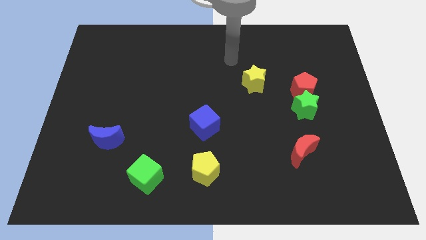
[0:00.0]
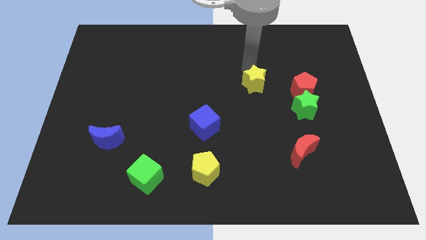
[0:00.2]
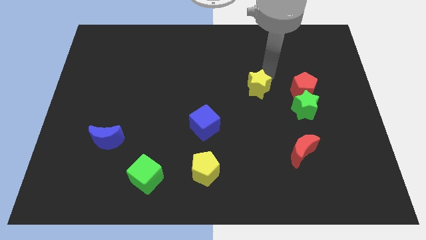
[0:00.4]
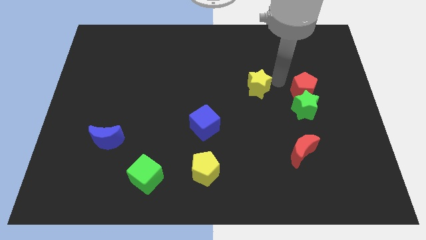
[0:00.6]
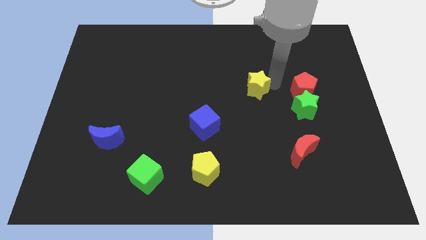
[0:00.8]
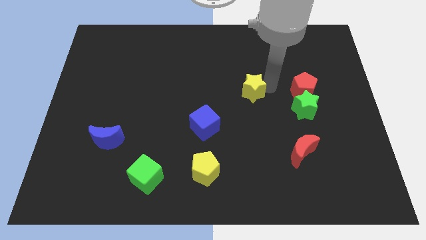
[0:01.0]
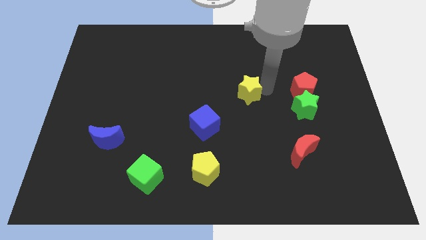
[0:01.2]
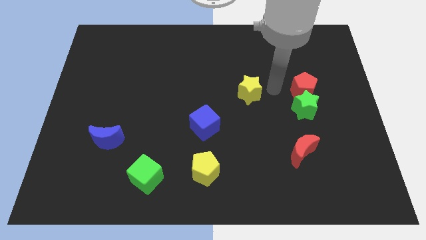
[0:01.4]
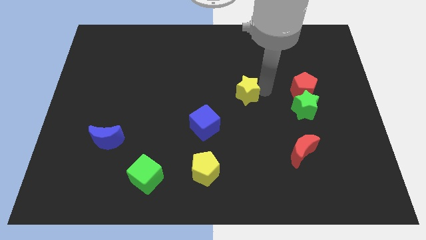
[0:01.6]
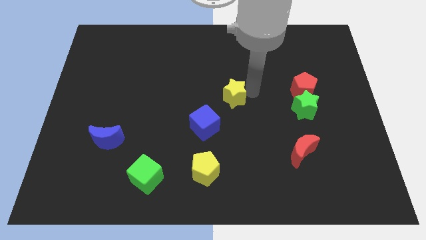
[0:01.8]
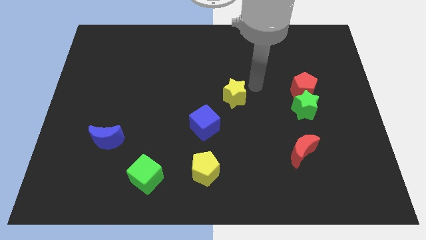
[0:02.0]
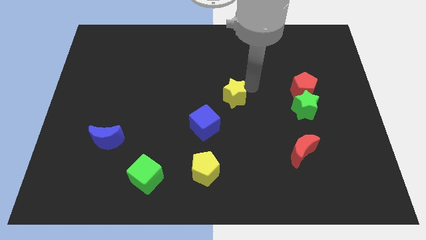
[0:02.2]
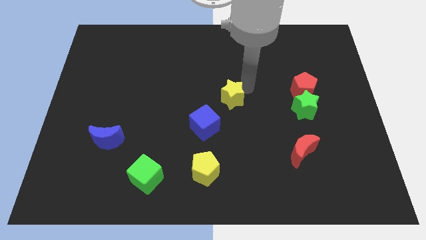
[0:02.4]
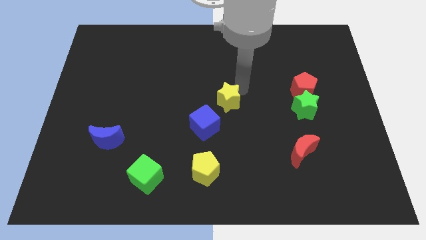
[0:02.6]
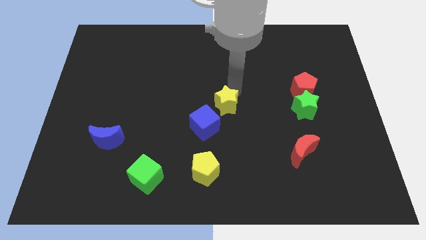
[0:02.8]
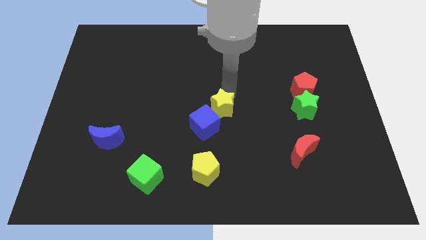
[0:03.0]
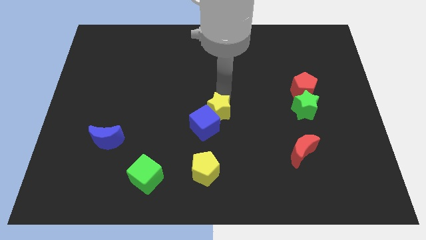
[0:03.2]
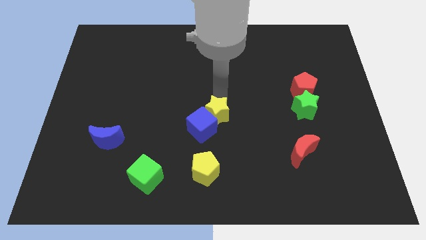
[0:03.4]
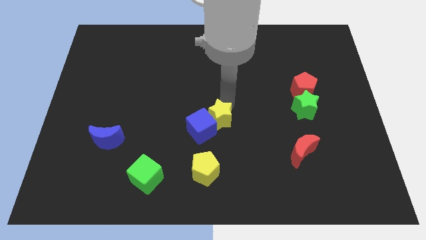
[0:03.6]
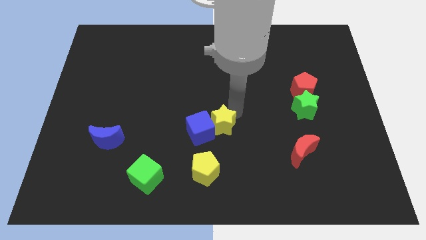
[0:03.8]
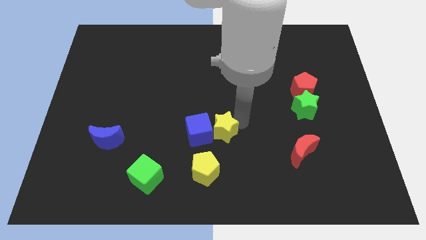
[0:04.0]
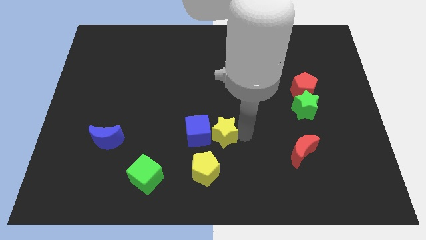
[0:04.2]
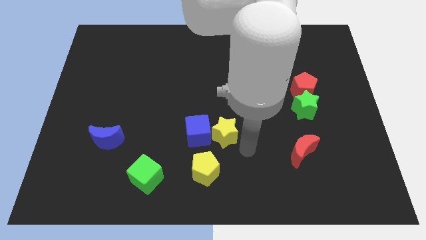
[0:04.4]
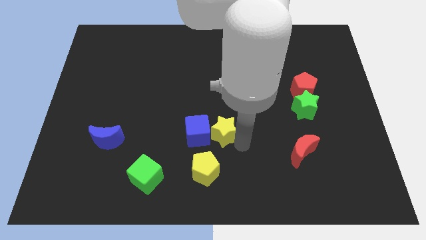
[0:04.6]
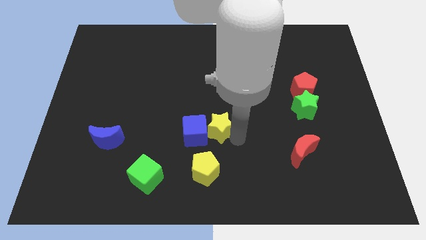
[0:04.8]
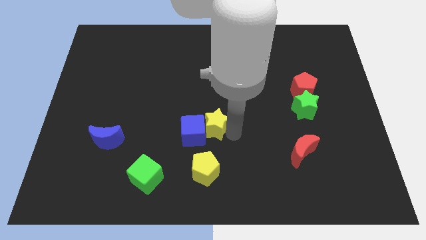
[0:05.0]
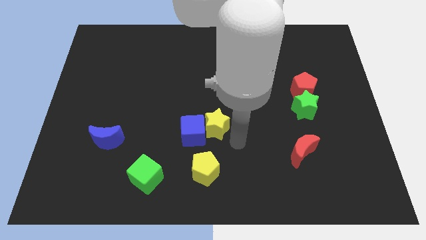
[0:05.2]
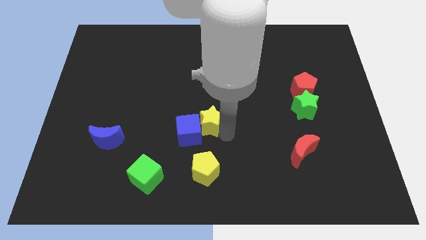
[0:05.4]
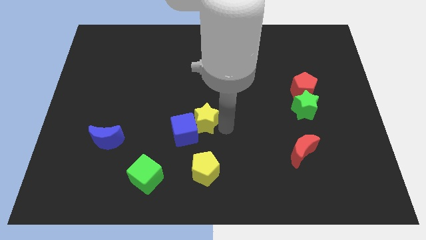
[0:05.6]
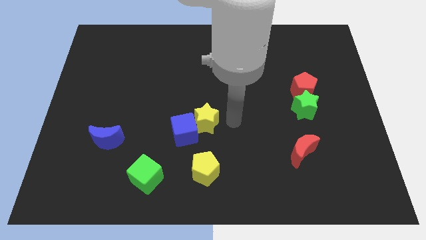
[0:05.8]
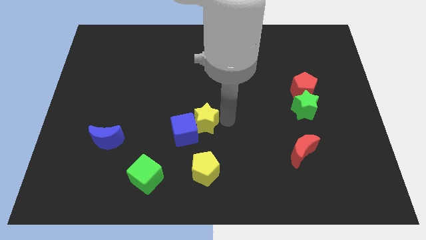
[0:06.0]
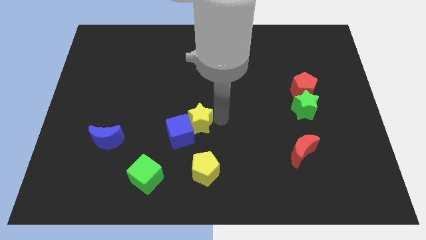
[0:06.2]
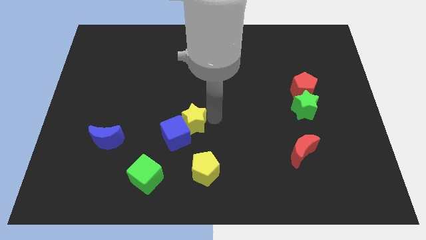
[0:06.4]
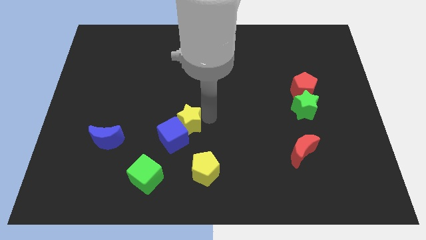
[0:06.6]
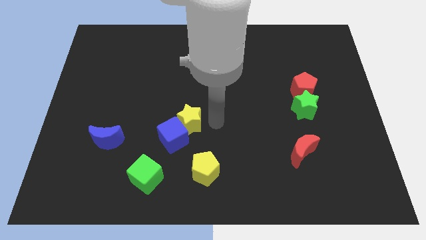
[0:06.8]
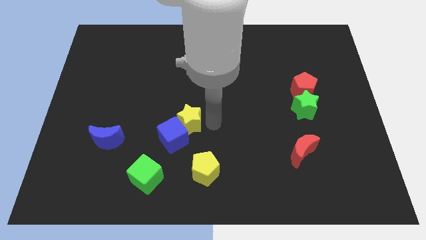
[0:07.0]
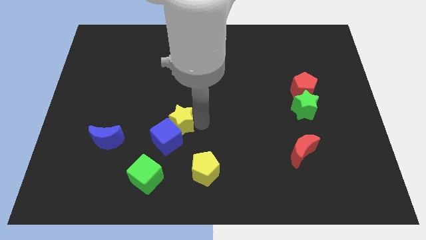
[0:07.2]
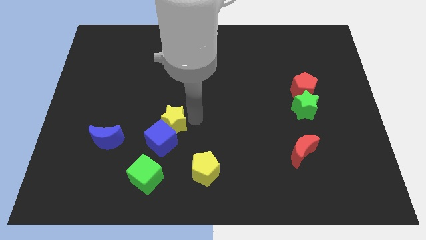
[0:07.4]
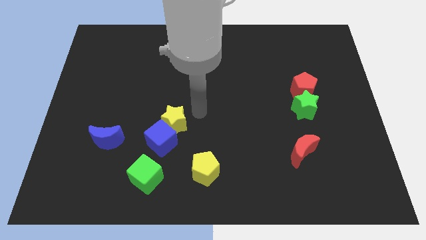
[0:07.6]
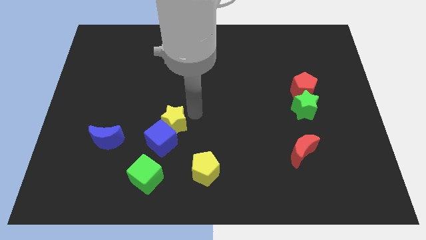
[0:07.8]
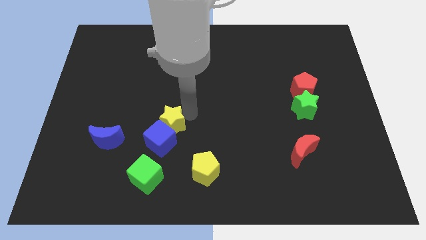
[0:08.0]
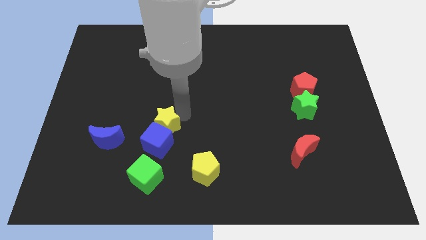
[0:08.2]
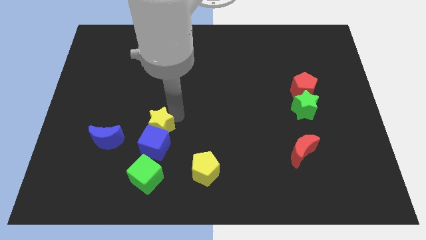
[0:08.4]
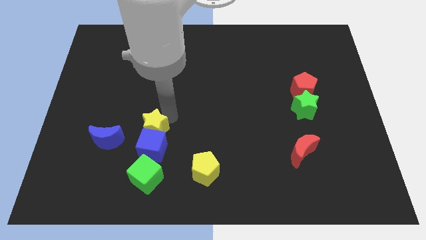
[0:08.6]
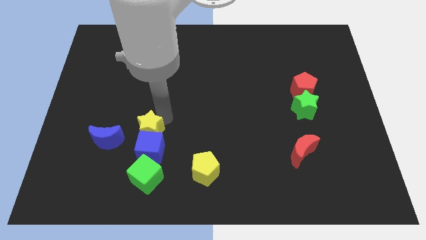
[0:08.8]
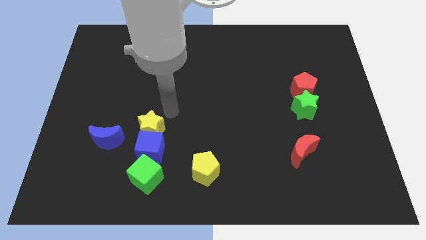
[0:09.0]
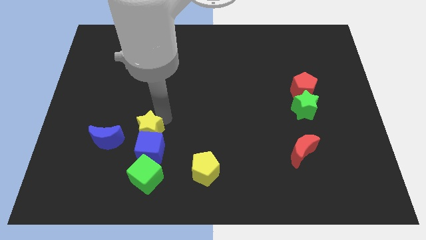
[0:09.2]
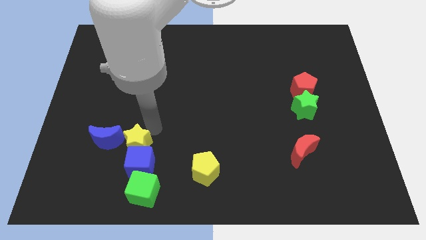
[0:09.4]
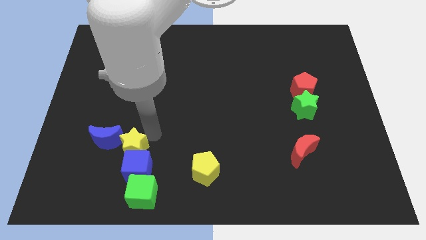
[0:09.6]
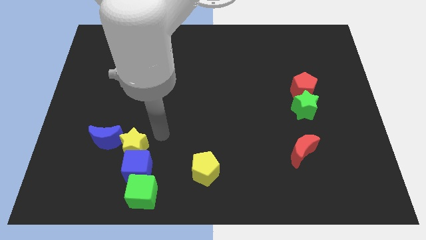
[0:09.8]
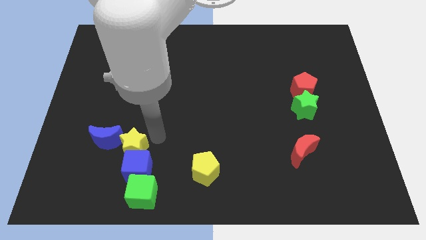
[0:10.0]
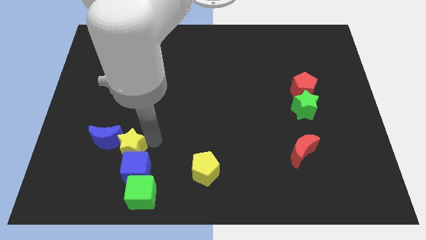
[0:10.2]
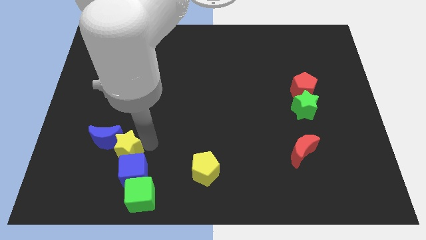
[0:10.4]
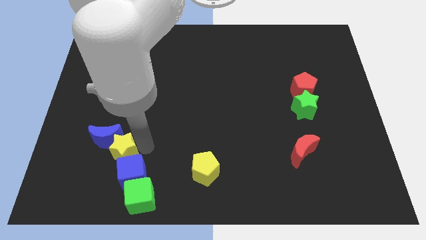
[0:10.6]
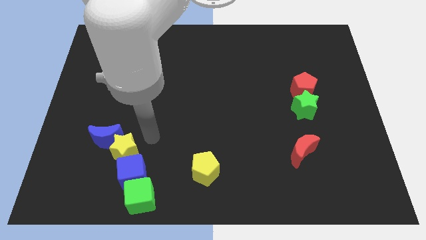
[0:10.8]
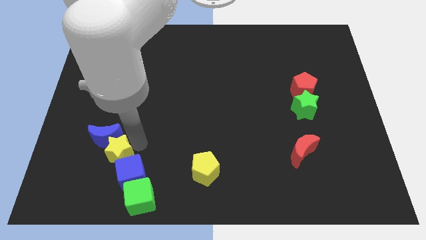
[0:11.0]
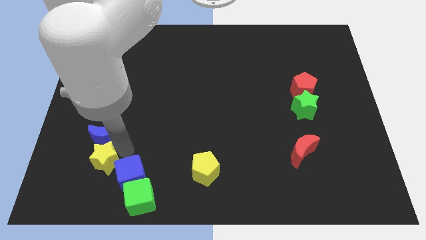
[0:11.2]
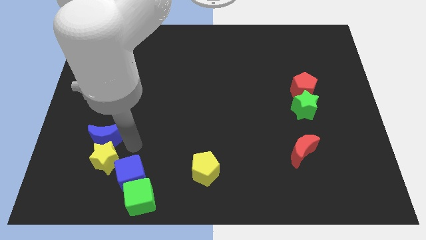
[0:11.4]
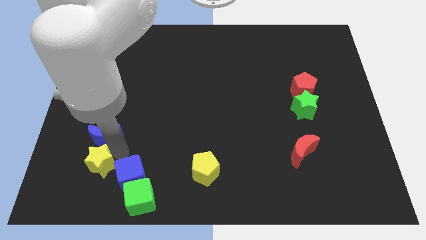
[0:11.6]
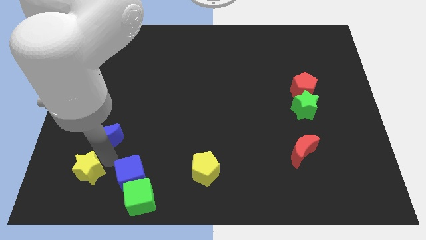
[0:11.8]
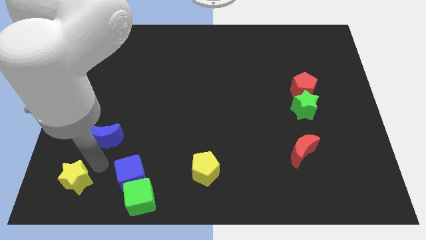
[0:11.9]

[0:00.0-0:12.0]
move the yellow star to the lower left corner

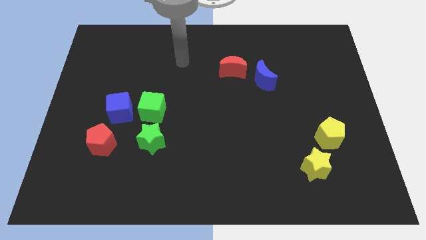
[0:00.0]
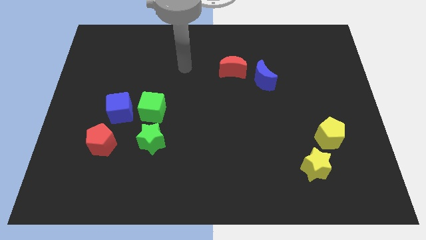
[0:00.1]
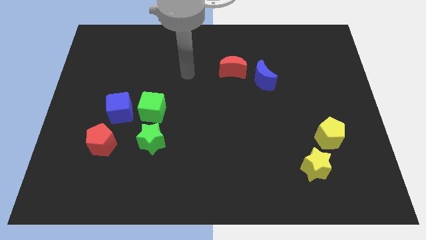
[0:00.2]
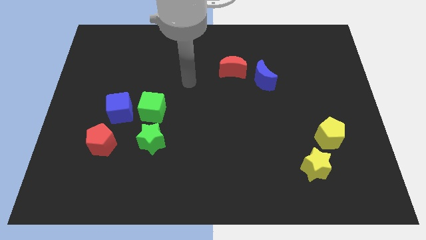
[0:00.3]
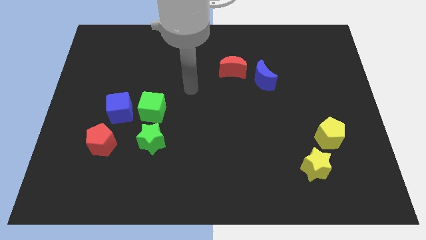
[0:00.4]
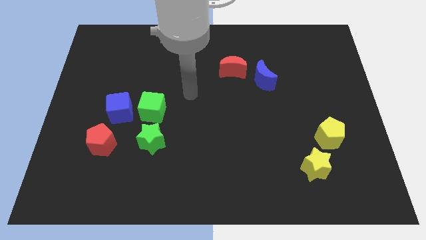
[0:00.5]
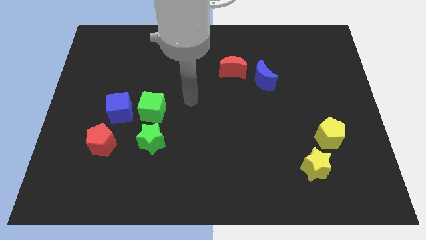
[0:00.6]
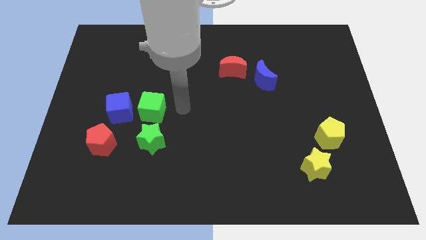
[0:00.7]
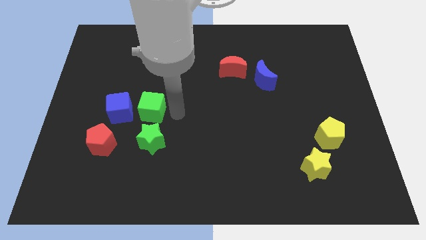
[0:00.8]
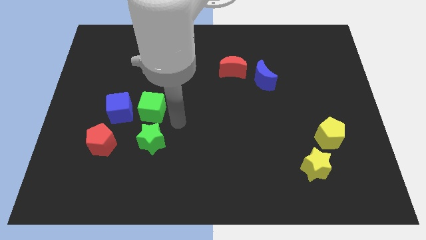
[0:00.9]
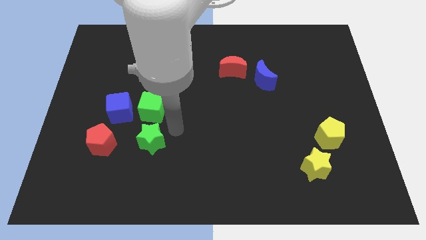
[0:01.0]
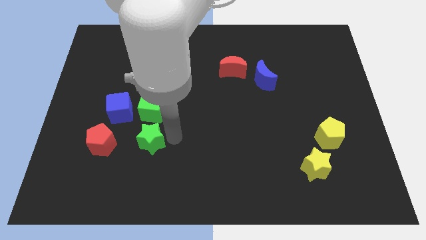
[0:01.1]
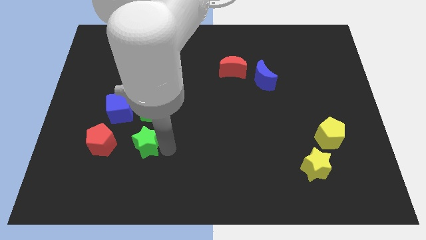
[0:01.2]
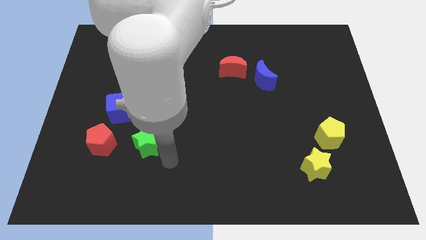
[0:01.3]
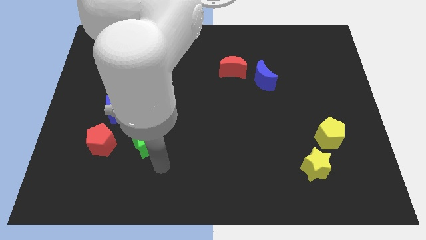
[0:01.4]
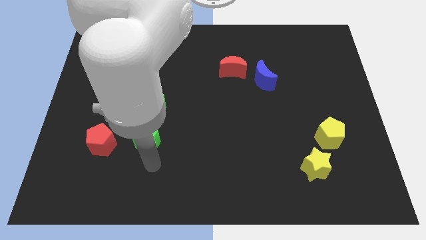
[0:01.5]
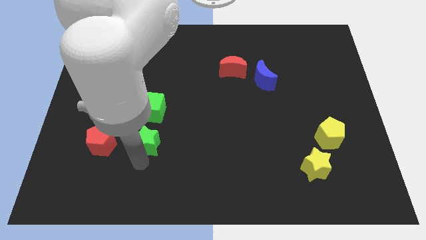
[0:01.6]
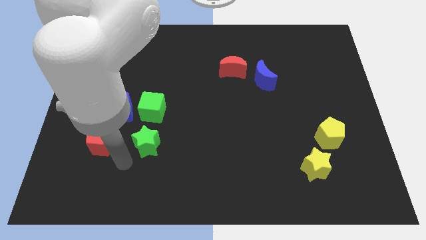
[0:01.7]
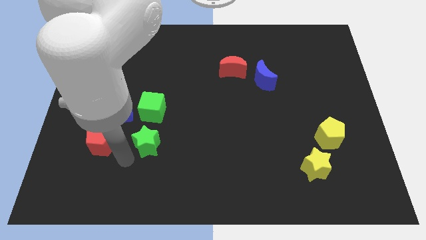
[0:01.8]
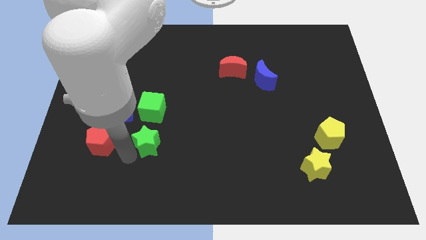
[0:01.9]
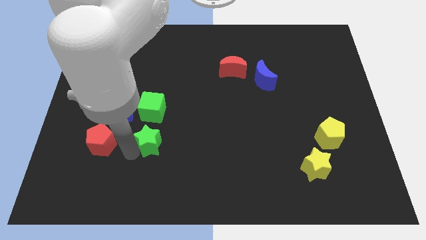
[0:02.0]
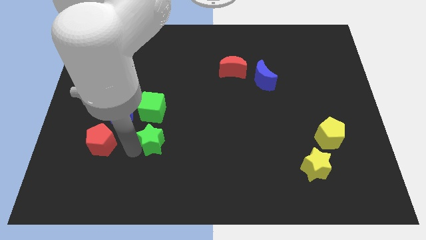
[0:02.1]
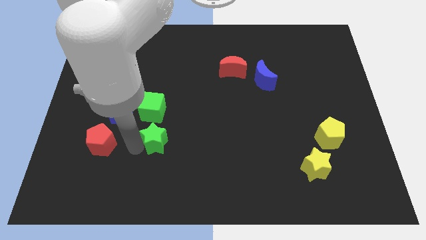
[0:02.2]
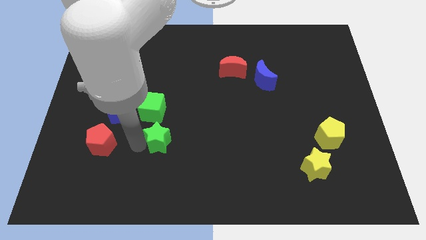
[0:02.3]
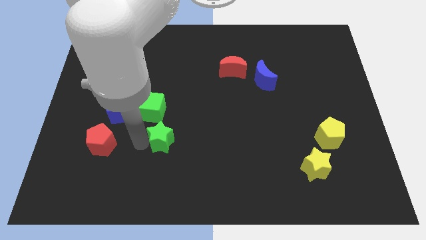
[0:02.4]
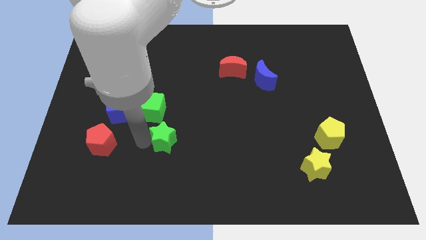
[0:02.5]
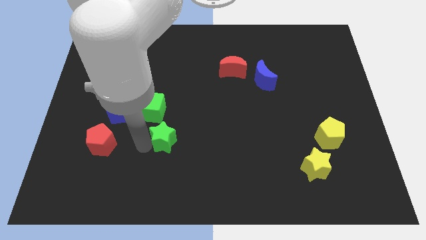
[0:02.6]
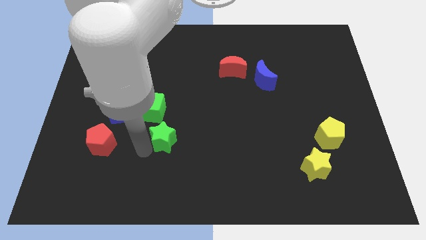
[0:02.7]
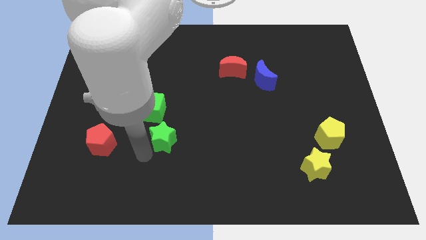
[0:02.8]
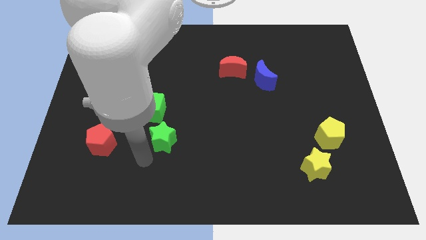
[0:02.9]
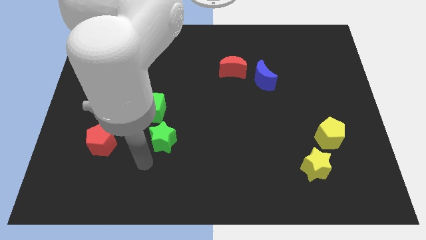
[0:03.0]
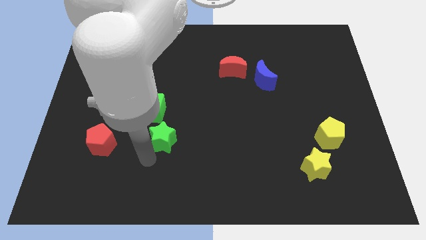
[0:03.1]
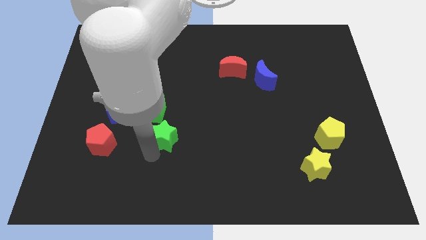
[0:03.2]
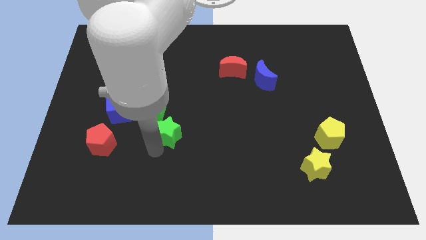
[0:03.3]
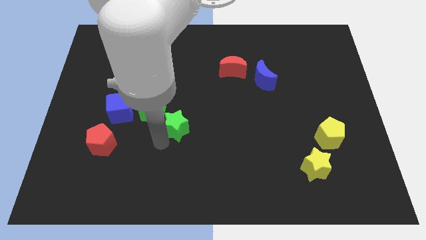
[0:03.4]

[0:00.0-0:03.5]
slide the green star to the middle
